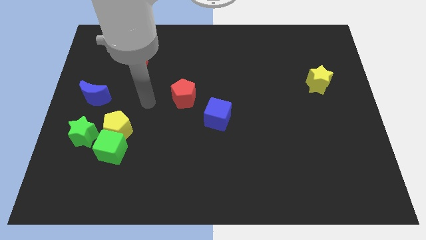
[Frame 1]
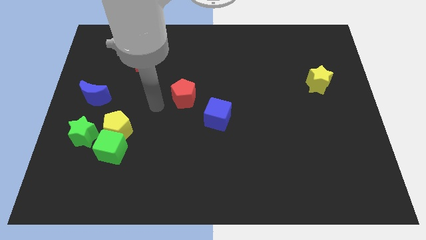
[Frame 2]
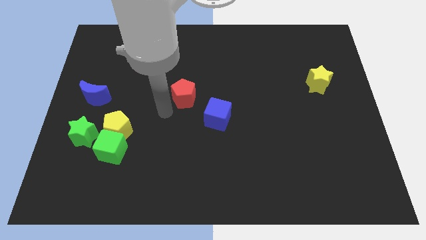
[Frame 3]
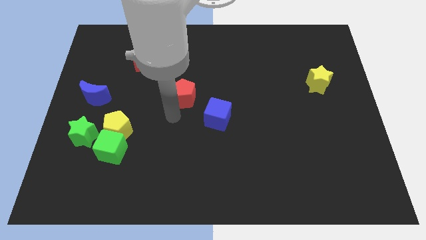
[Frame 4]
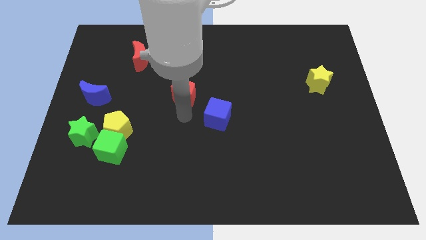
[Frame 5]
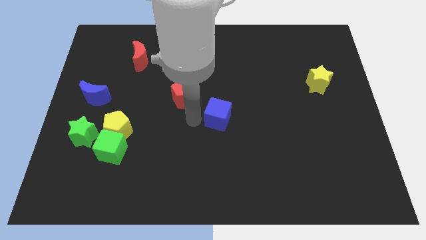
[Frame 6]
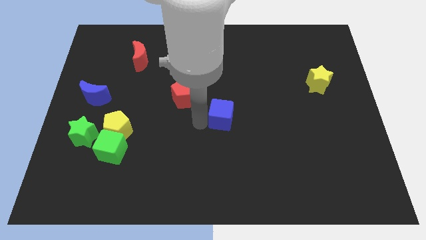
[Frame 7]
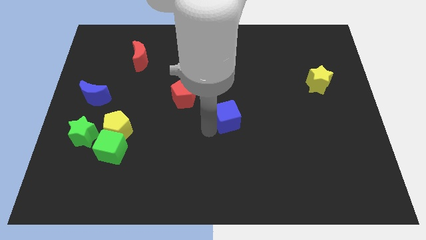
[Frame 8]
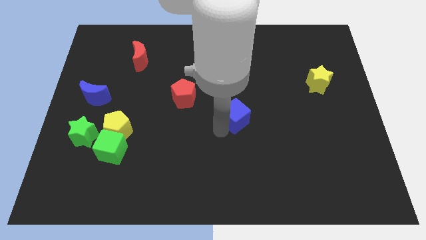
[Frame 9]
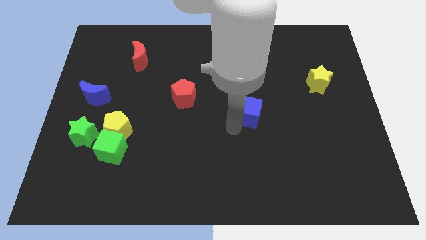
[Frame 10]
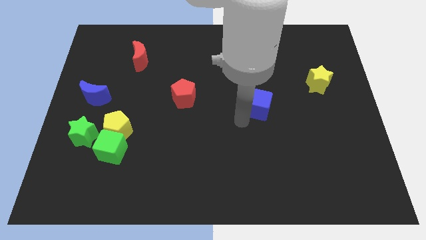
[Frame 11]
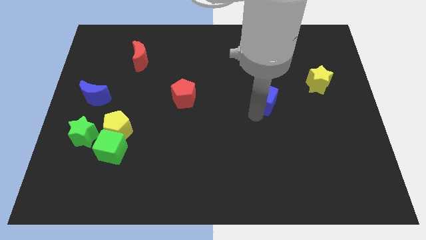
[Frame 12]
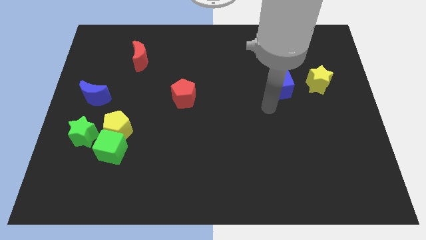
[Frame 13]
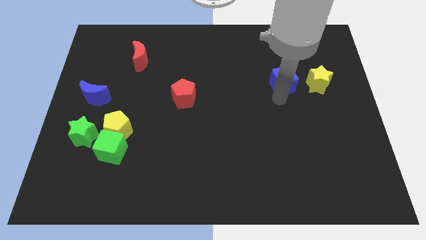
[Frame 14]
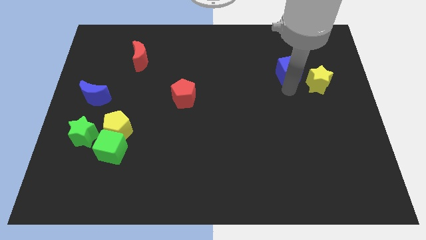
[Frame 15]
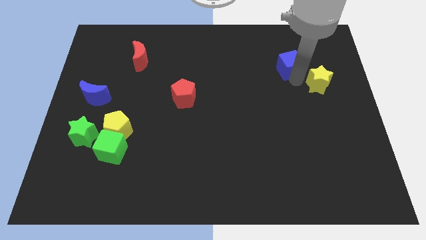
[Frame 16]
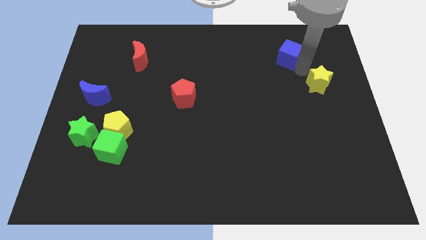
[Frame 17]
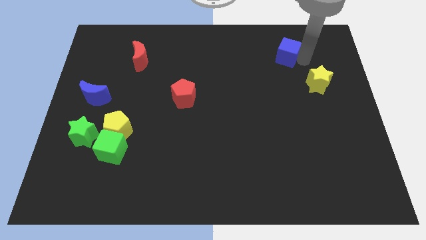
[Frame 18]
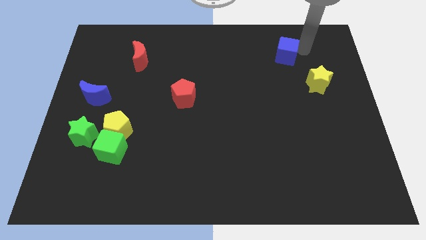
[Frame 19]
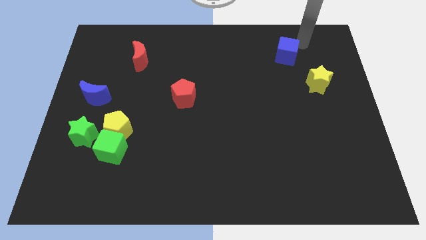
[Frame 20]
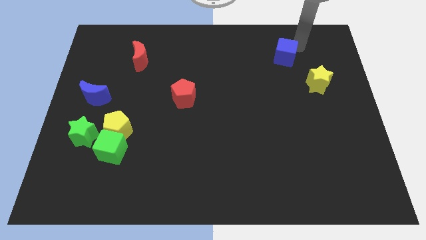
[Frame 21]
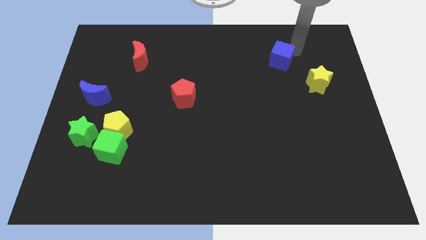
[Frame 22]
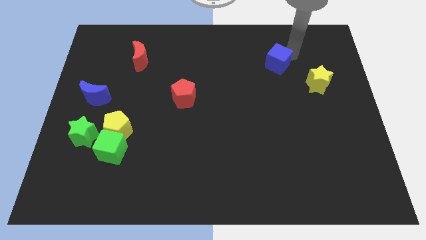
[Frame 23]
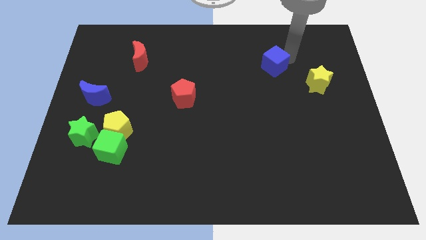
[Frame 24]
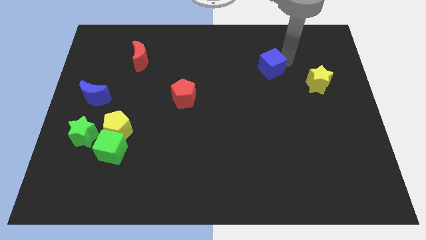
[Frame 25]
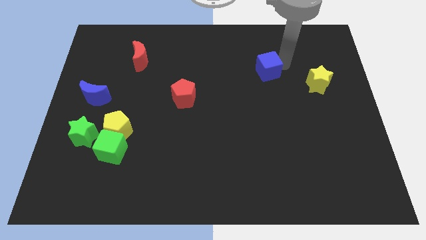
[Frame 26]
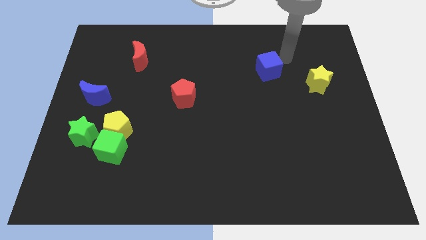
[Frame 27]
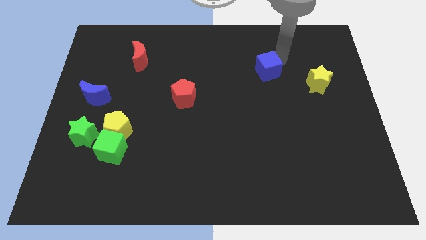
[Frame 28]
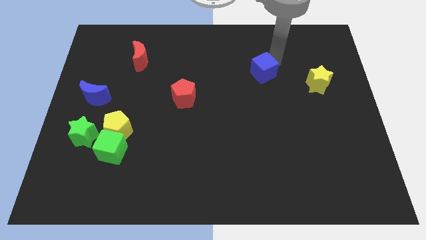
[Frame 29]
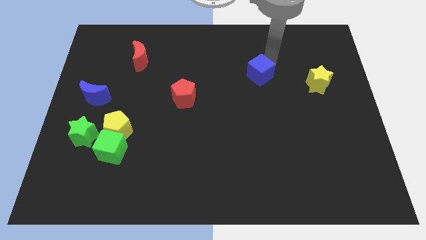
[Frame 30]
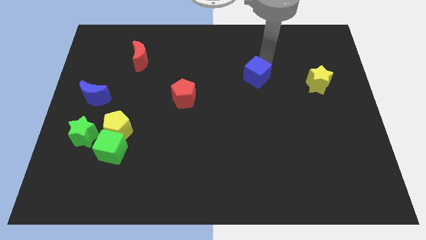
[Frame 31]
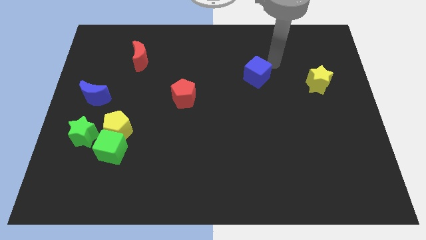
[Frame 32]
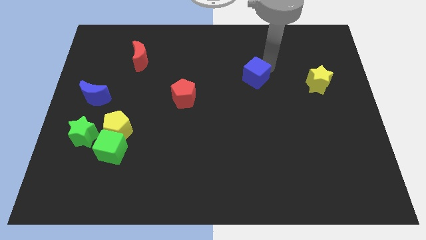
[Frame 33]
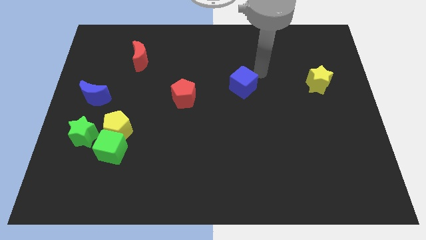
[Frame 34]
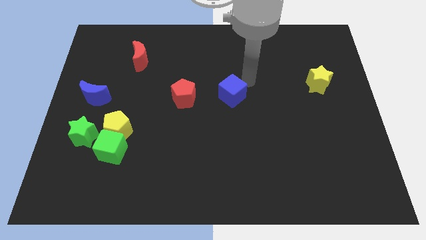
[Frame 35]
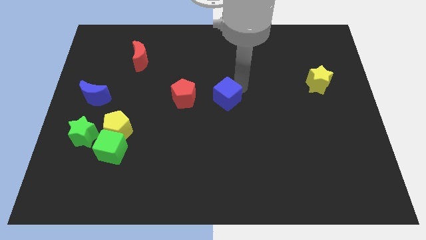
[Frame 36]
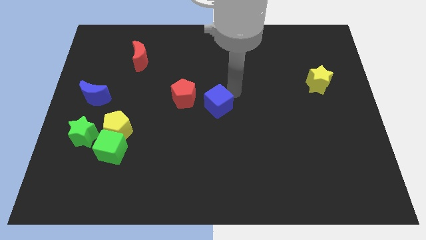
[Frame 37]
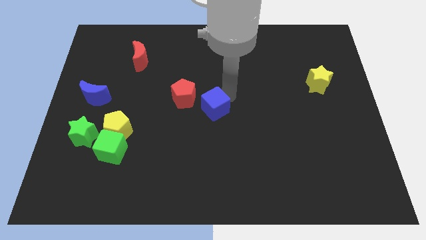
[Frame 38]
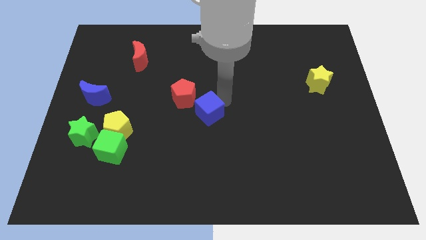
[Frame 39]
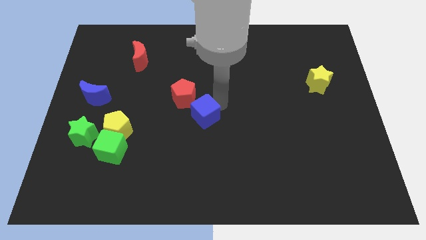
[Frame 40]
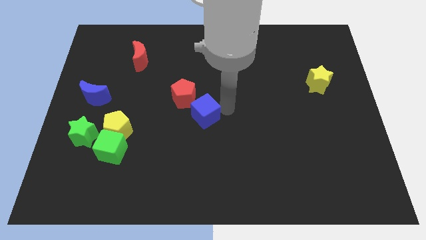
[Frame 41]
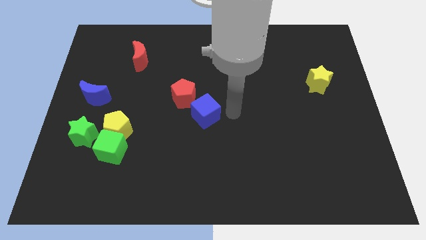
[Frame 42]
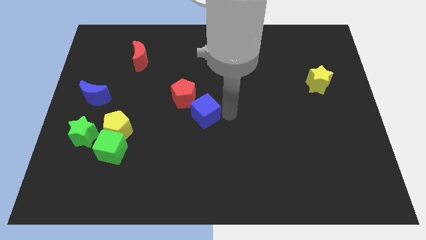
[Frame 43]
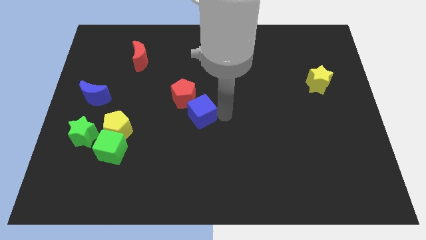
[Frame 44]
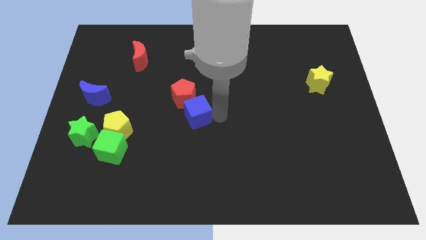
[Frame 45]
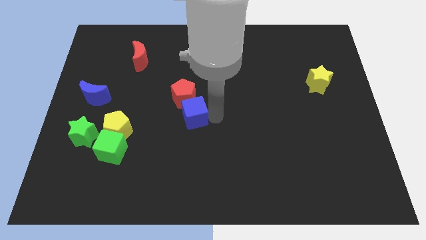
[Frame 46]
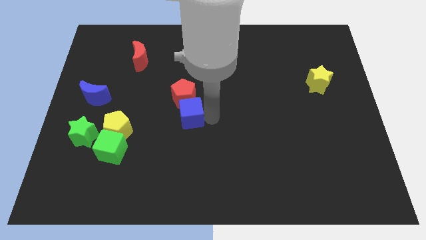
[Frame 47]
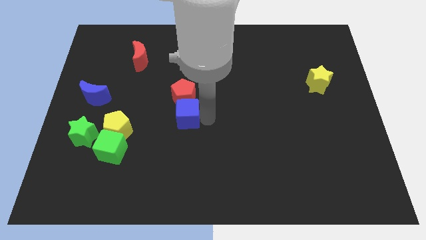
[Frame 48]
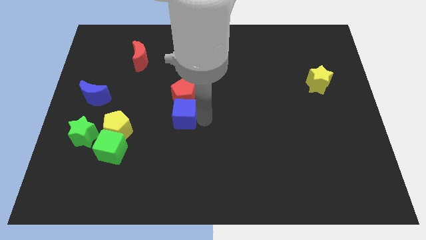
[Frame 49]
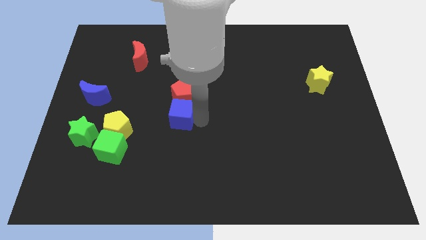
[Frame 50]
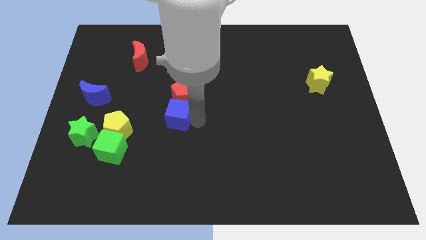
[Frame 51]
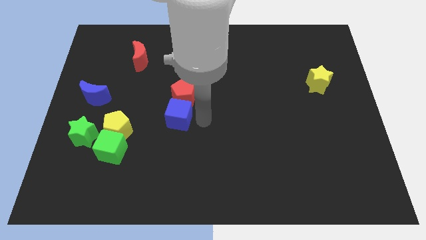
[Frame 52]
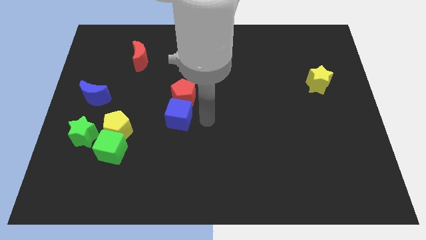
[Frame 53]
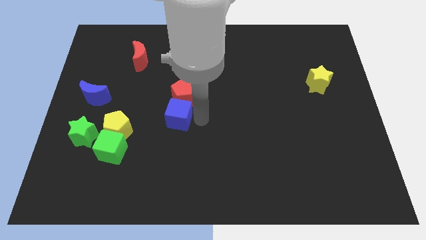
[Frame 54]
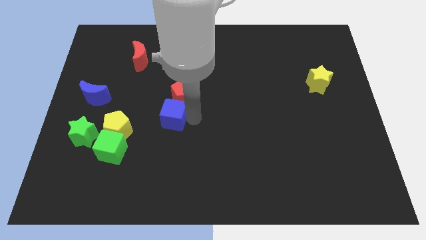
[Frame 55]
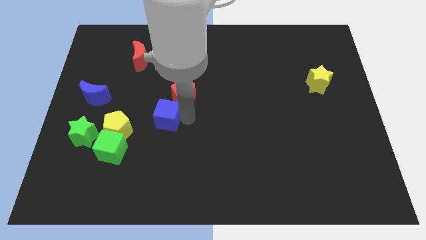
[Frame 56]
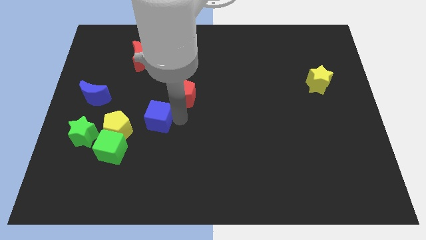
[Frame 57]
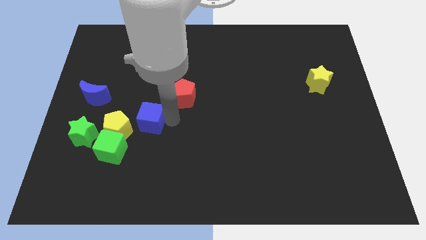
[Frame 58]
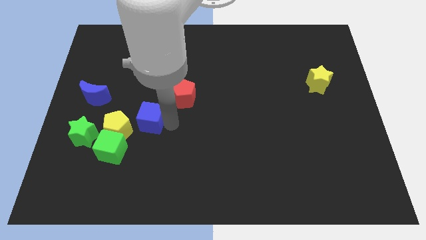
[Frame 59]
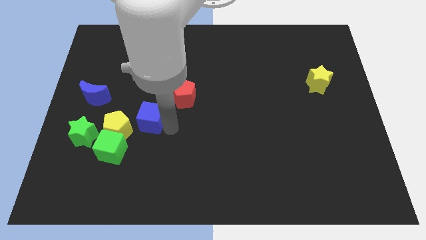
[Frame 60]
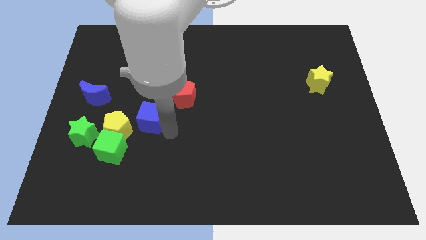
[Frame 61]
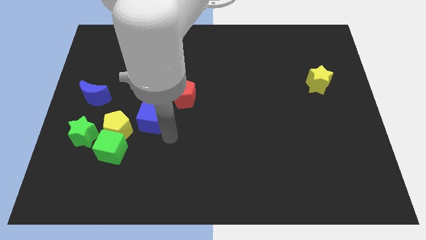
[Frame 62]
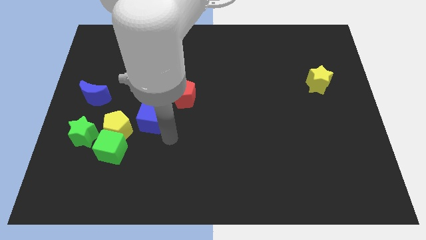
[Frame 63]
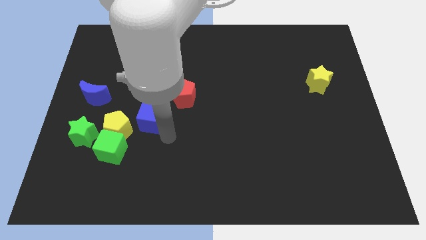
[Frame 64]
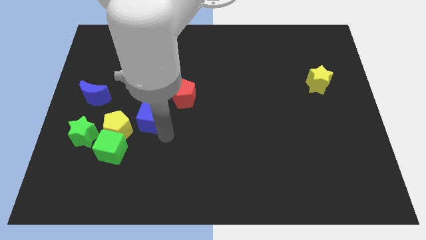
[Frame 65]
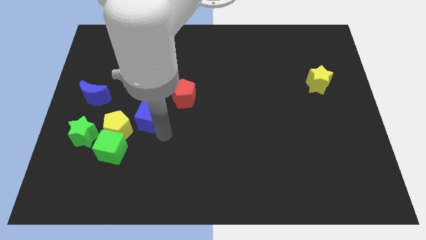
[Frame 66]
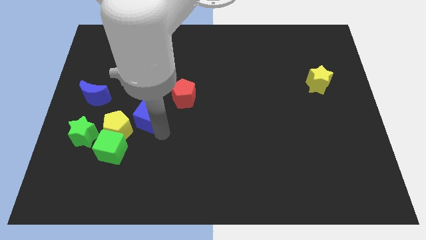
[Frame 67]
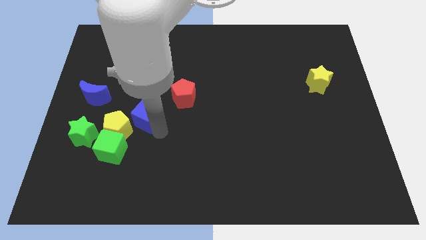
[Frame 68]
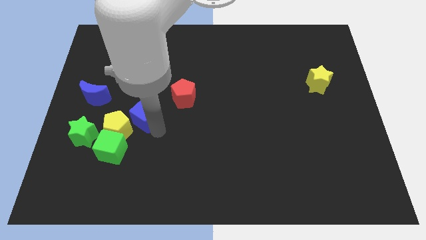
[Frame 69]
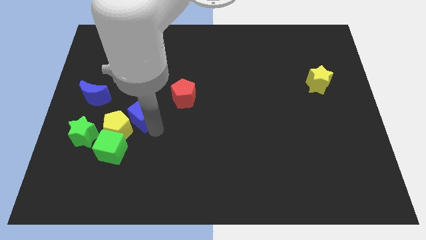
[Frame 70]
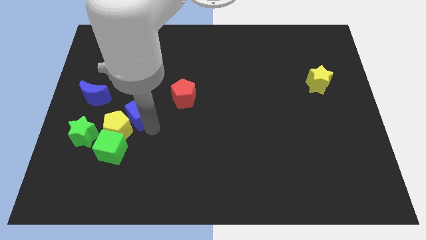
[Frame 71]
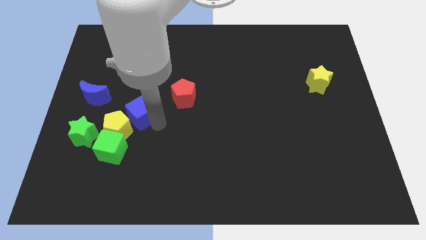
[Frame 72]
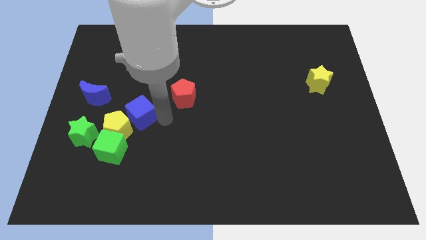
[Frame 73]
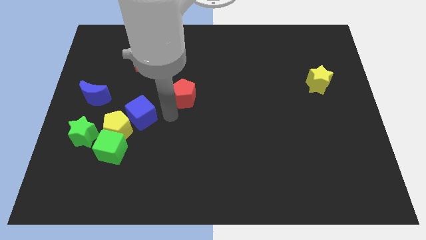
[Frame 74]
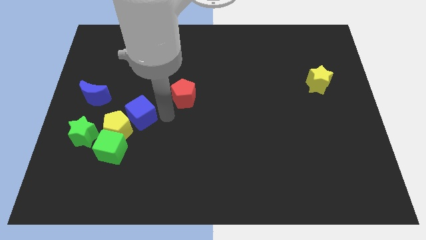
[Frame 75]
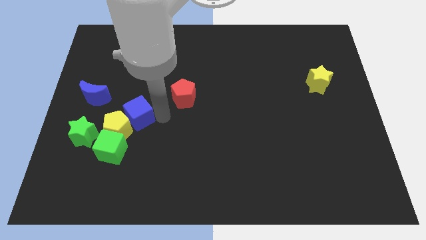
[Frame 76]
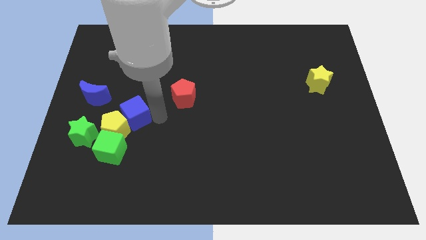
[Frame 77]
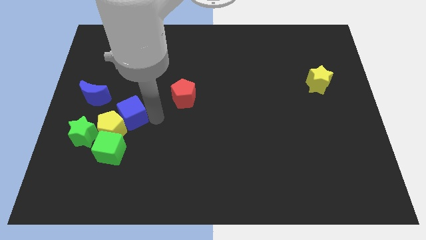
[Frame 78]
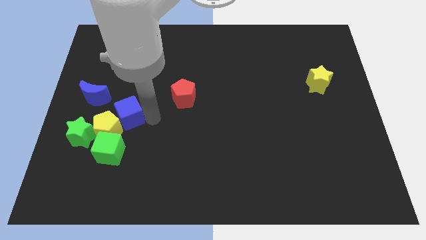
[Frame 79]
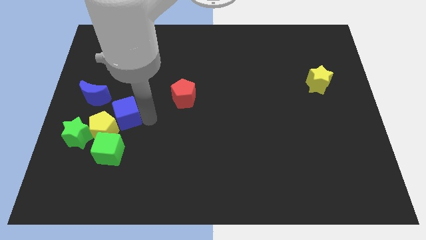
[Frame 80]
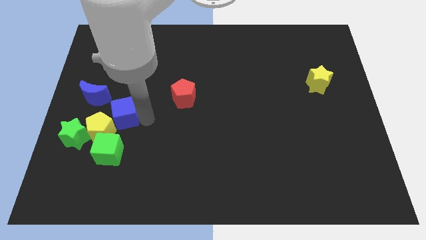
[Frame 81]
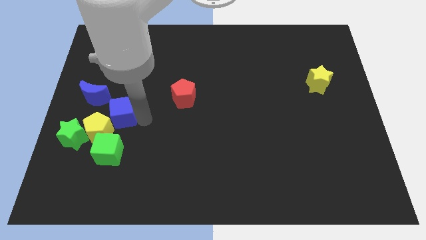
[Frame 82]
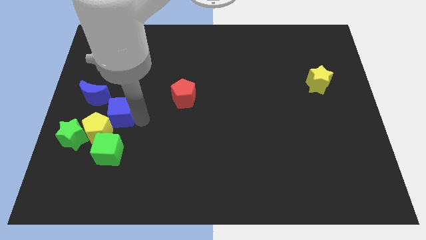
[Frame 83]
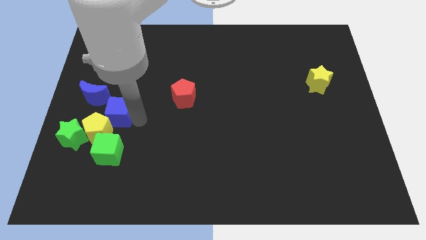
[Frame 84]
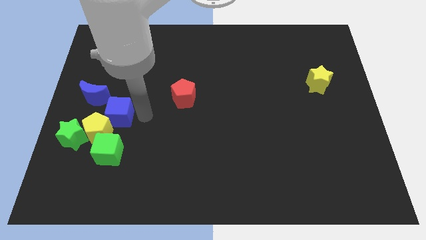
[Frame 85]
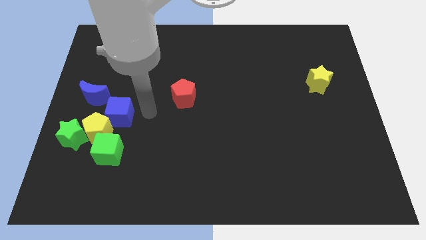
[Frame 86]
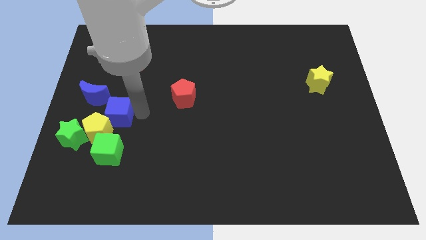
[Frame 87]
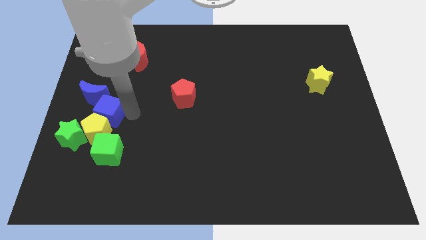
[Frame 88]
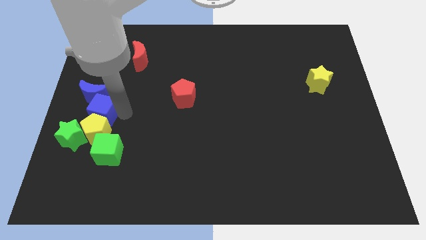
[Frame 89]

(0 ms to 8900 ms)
push the blue cube to the left side
